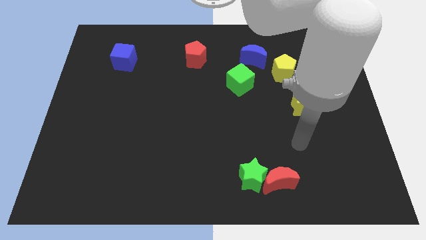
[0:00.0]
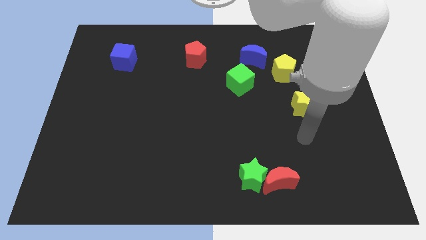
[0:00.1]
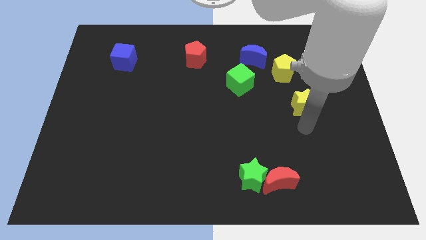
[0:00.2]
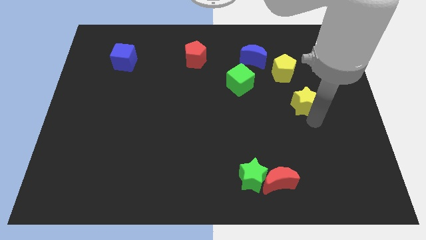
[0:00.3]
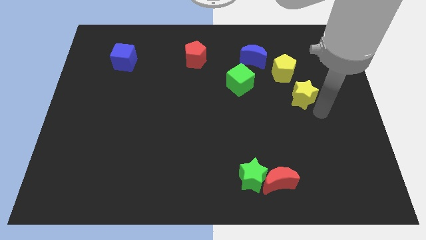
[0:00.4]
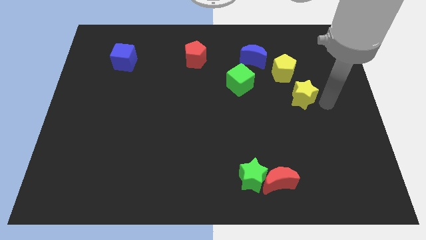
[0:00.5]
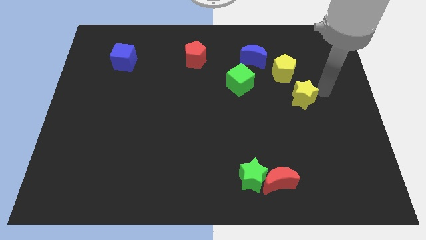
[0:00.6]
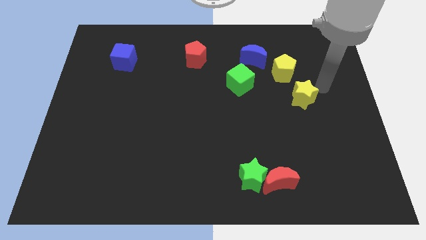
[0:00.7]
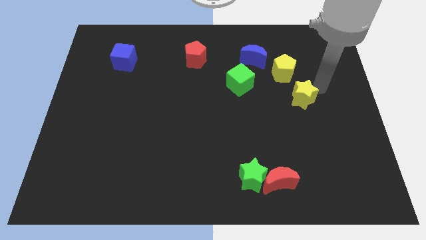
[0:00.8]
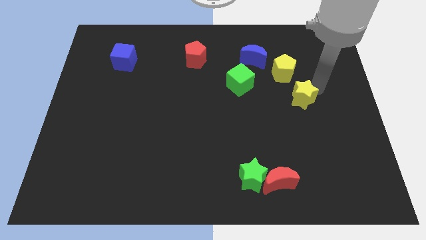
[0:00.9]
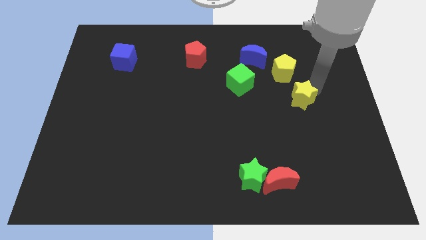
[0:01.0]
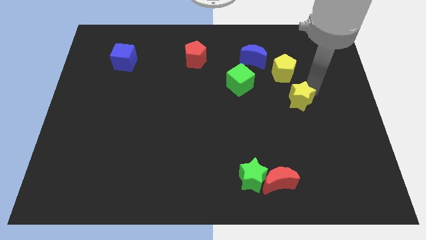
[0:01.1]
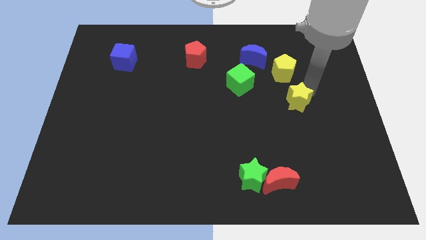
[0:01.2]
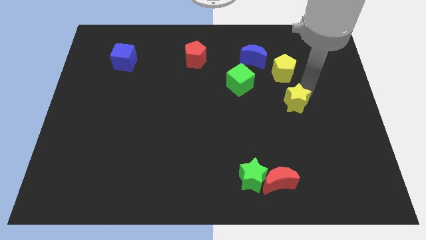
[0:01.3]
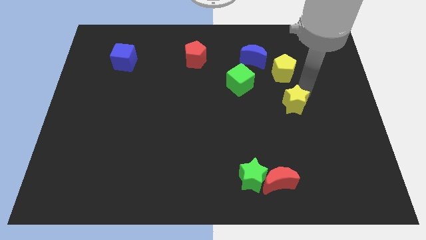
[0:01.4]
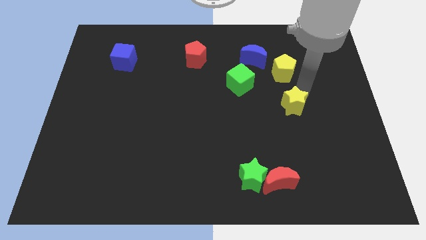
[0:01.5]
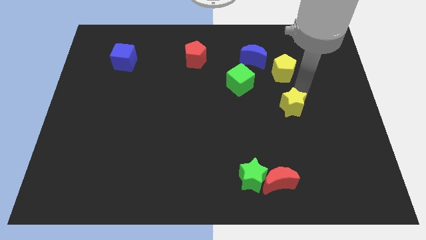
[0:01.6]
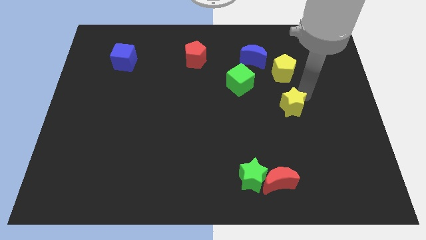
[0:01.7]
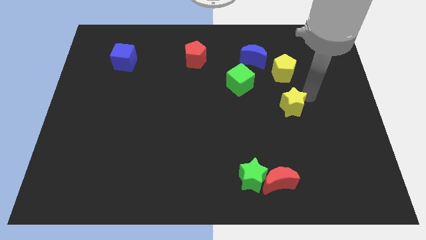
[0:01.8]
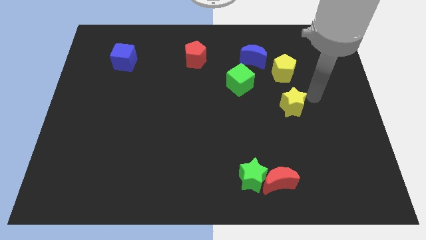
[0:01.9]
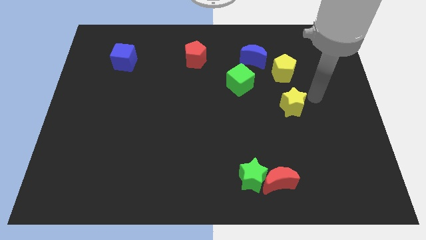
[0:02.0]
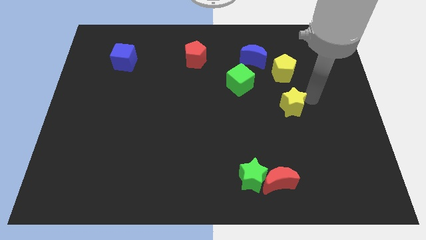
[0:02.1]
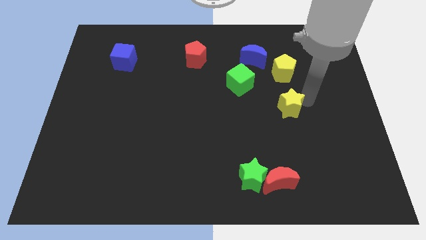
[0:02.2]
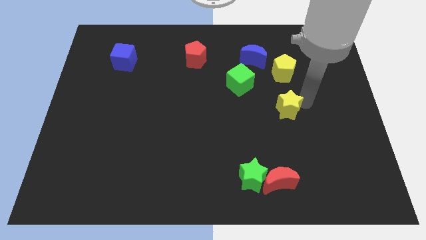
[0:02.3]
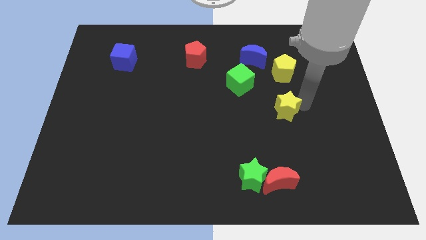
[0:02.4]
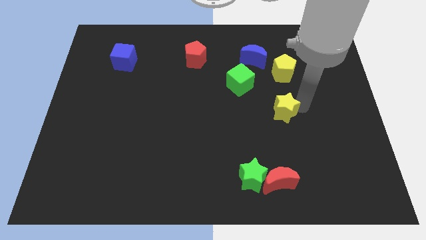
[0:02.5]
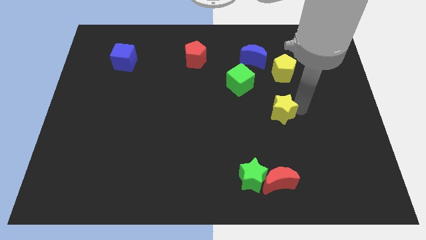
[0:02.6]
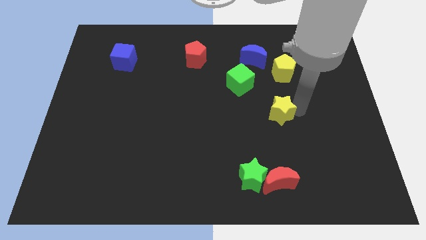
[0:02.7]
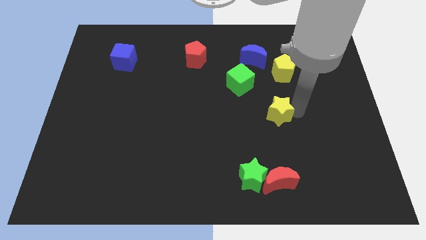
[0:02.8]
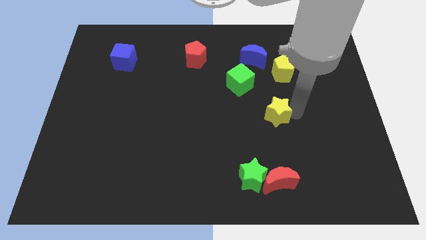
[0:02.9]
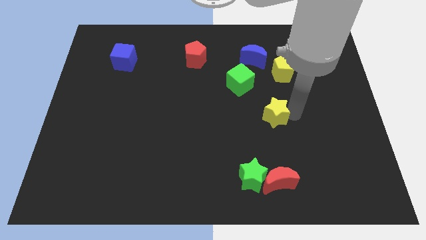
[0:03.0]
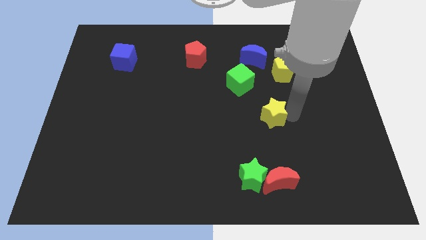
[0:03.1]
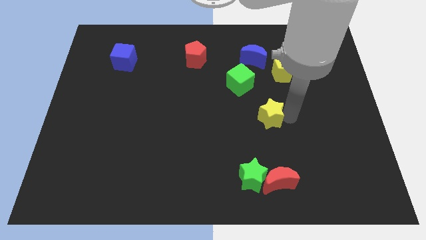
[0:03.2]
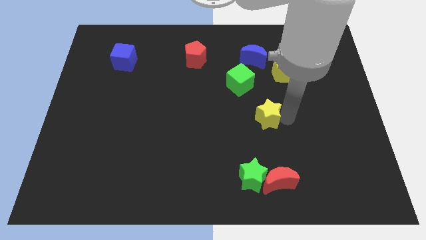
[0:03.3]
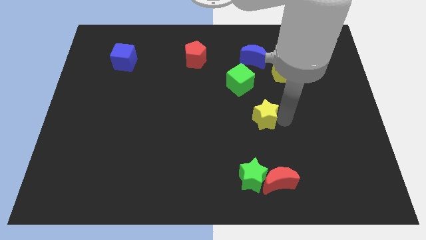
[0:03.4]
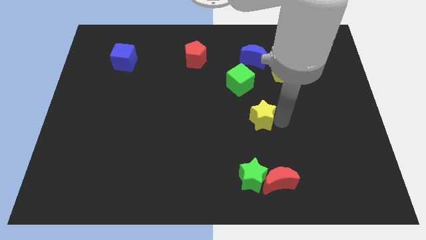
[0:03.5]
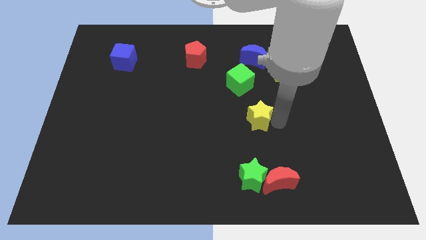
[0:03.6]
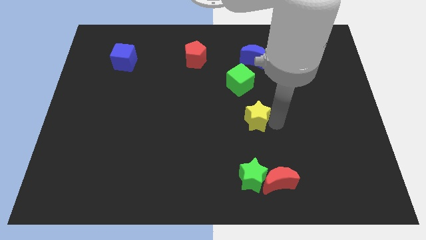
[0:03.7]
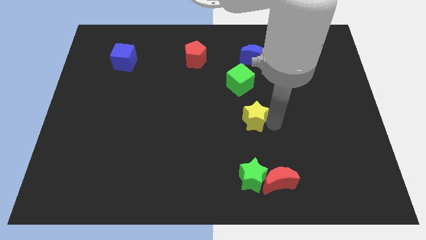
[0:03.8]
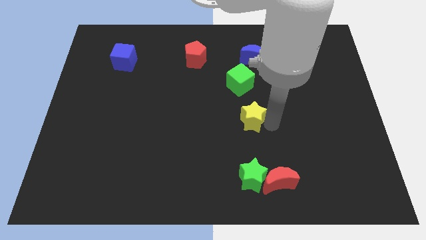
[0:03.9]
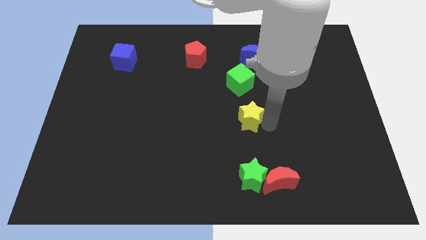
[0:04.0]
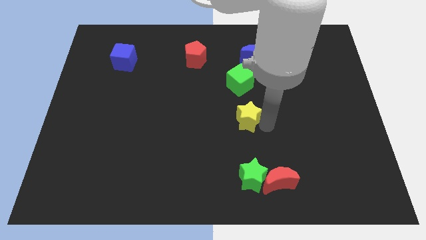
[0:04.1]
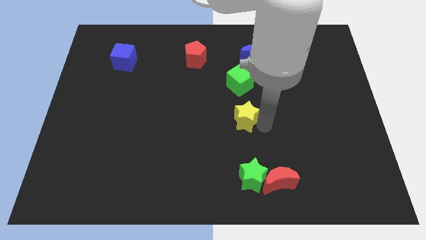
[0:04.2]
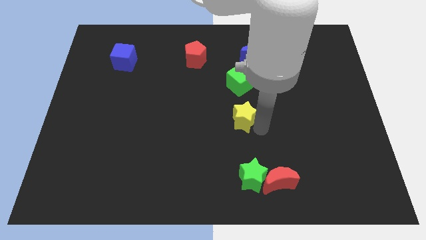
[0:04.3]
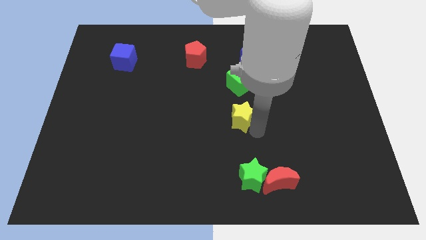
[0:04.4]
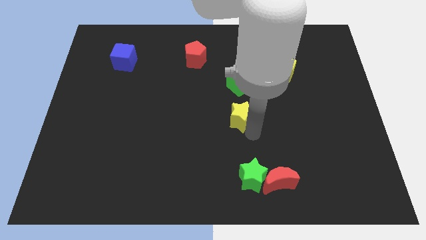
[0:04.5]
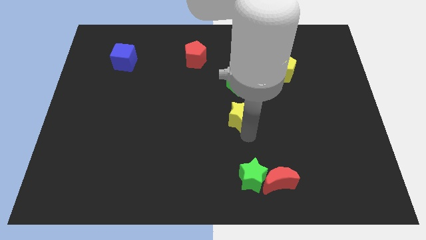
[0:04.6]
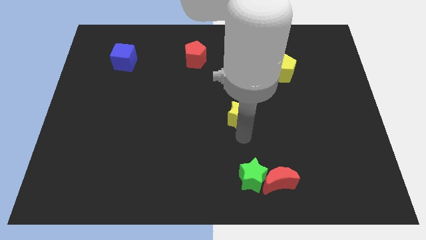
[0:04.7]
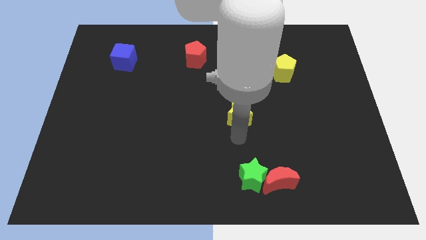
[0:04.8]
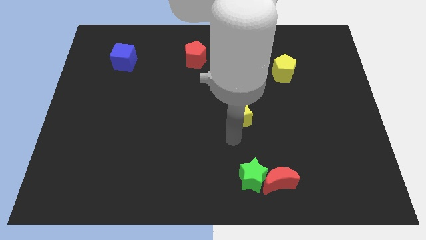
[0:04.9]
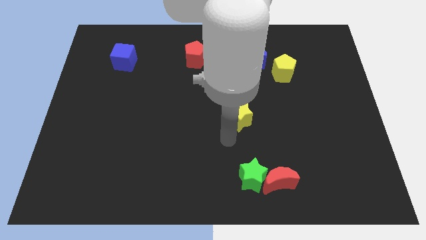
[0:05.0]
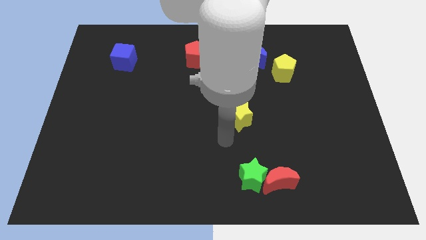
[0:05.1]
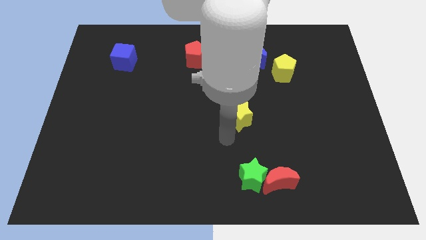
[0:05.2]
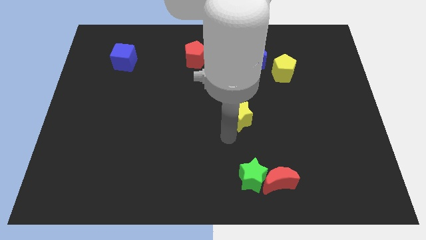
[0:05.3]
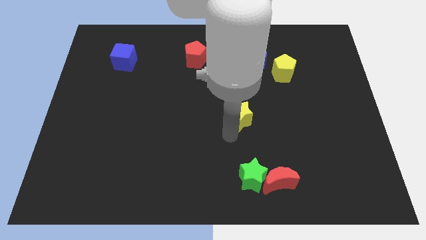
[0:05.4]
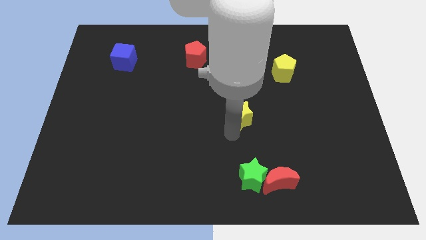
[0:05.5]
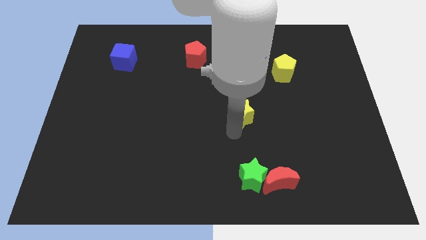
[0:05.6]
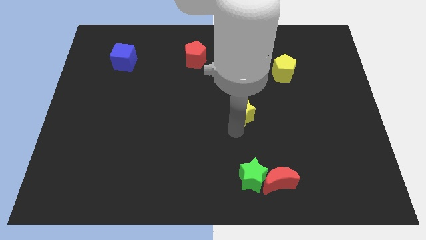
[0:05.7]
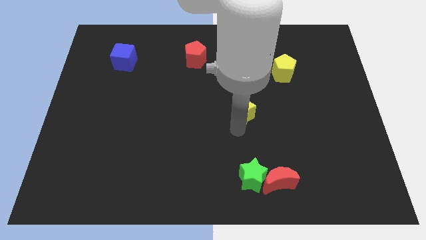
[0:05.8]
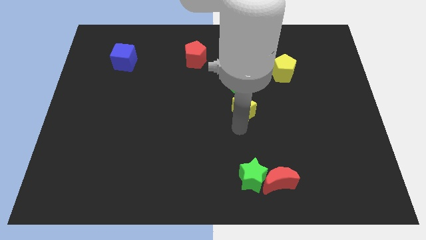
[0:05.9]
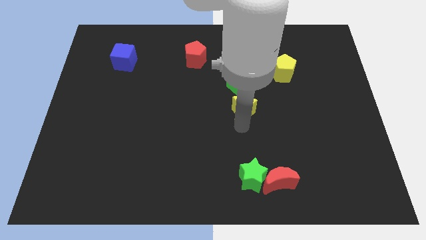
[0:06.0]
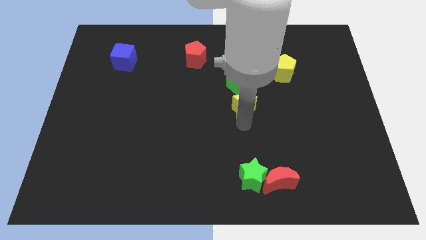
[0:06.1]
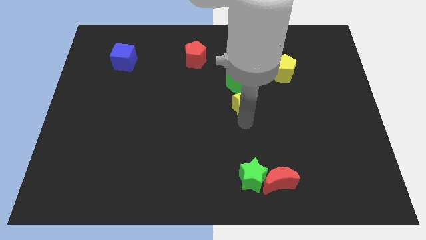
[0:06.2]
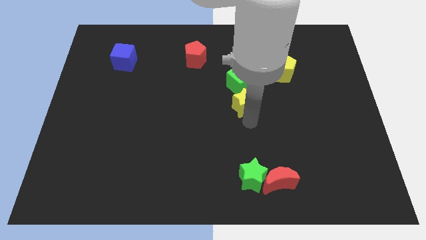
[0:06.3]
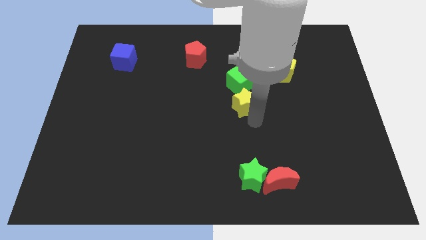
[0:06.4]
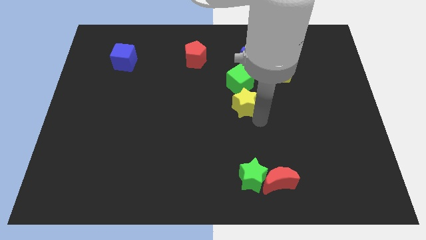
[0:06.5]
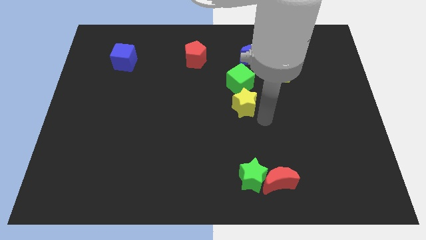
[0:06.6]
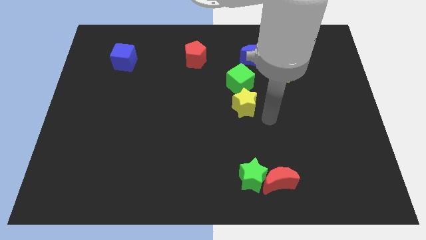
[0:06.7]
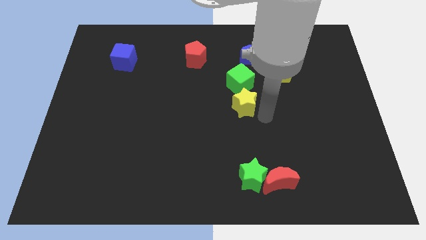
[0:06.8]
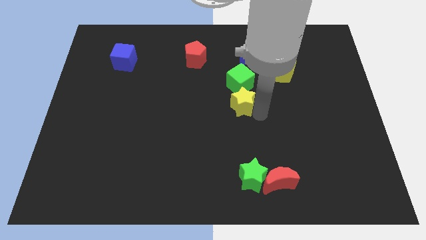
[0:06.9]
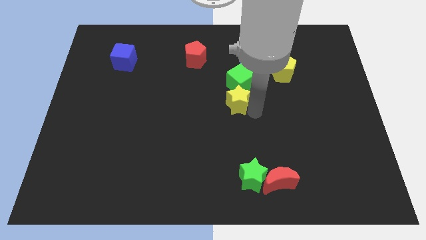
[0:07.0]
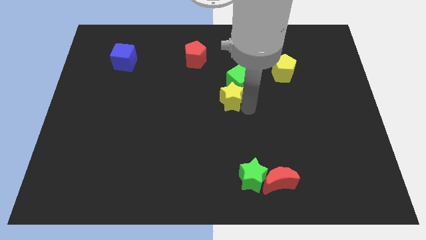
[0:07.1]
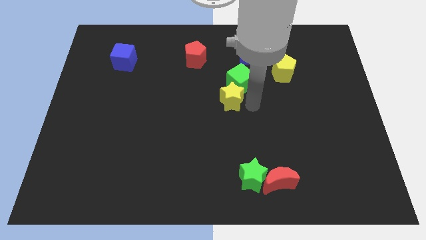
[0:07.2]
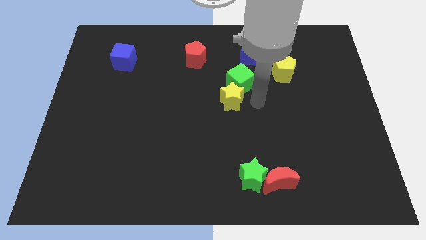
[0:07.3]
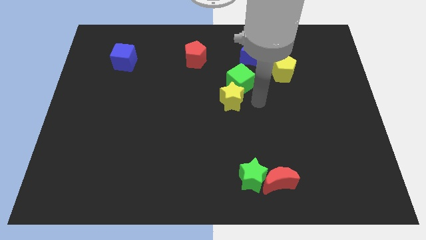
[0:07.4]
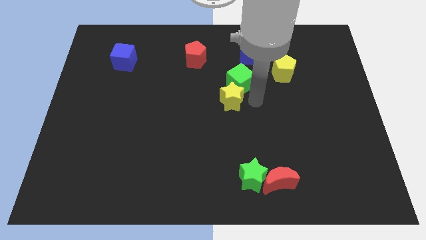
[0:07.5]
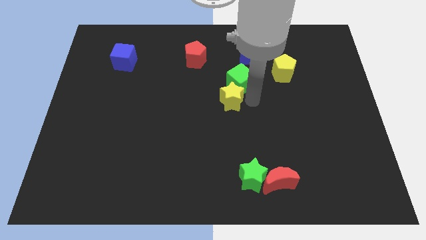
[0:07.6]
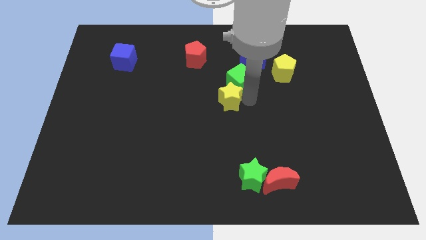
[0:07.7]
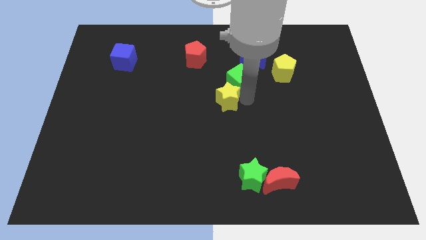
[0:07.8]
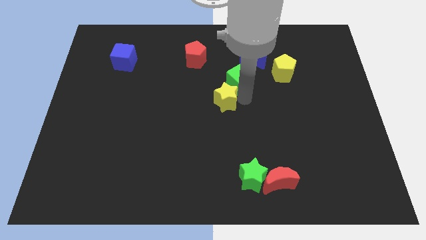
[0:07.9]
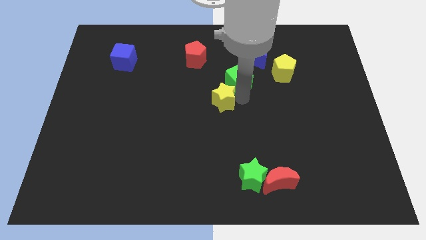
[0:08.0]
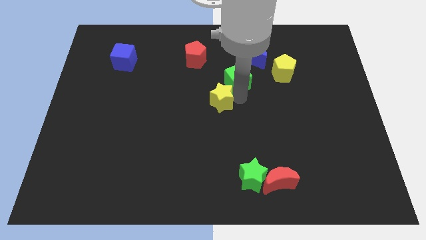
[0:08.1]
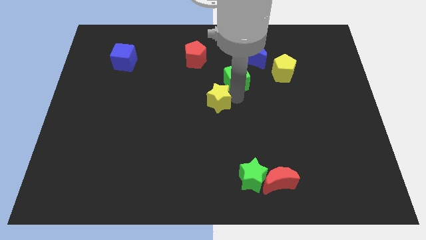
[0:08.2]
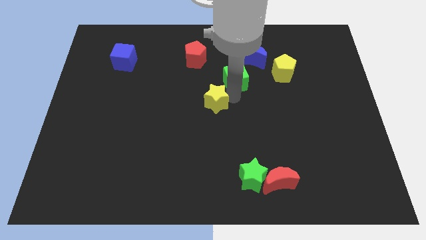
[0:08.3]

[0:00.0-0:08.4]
move the yellow star to the left
